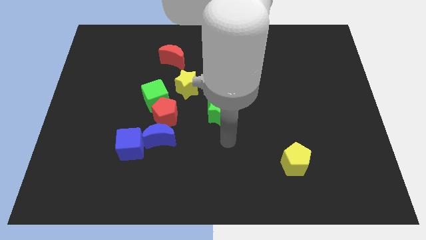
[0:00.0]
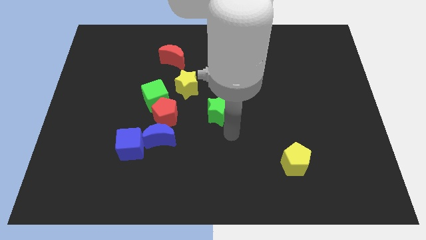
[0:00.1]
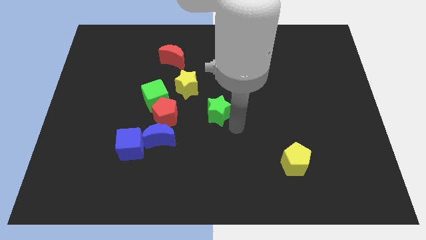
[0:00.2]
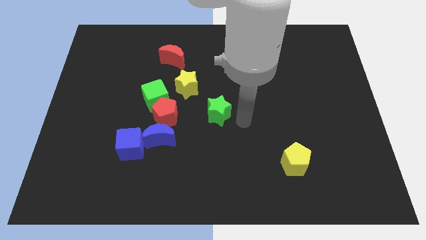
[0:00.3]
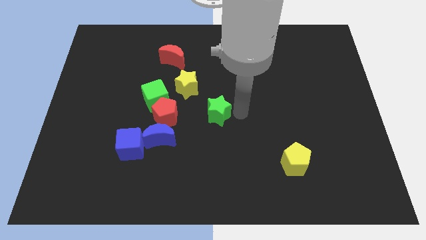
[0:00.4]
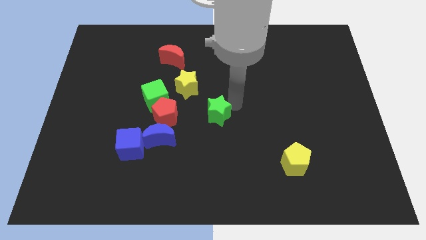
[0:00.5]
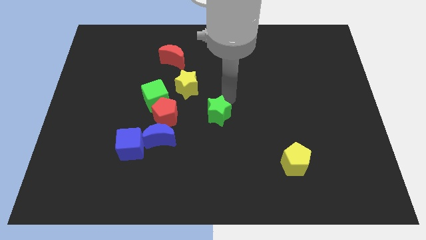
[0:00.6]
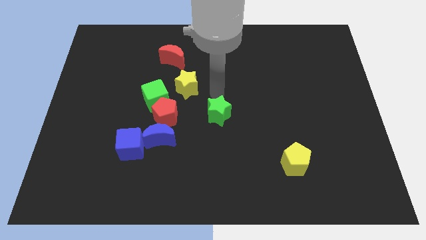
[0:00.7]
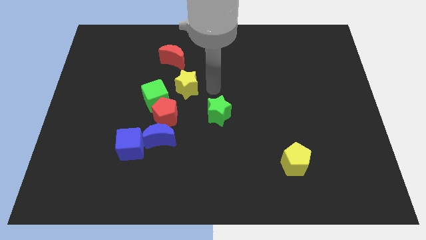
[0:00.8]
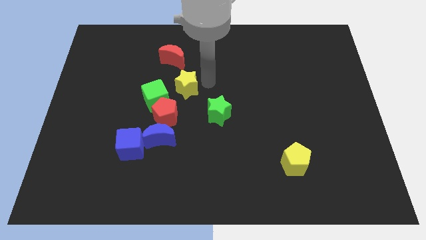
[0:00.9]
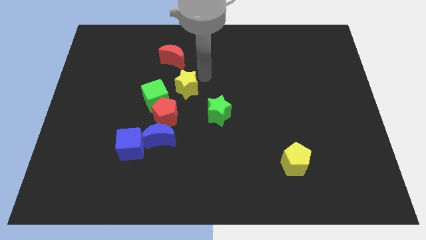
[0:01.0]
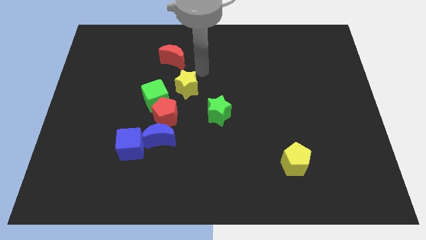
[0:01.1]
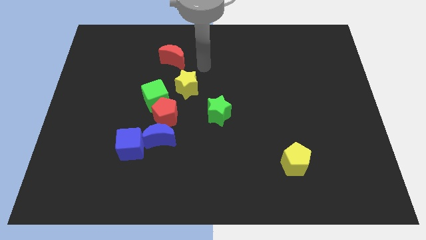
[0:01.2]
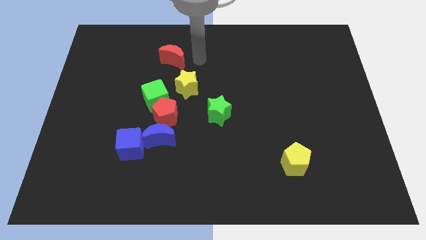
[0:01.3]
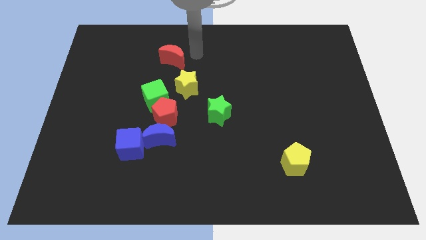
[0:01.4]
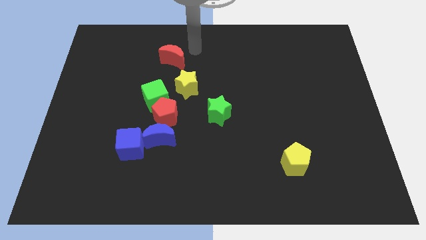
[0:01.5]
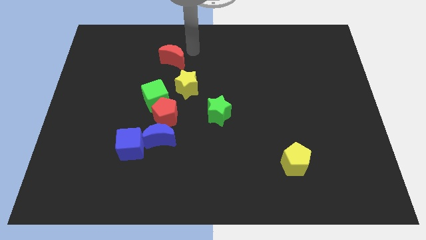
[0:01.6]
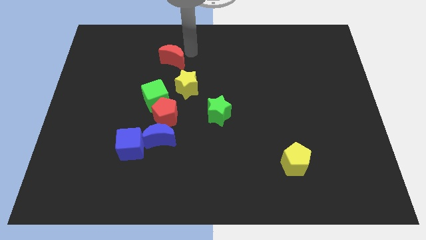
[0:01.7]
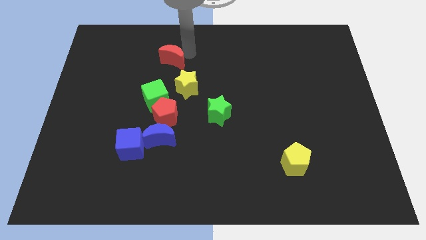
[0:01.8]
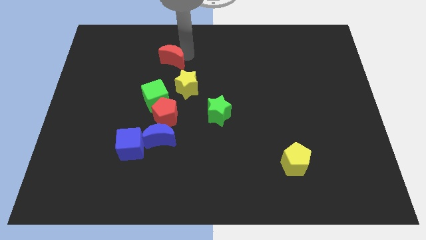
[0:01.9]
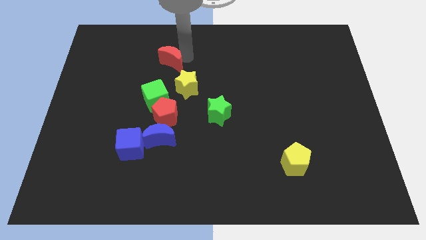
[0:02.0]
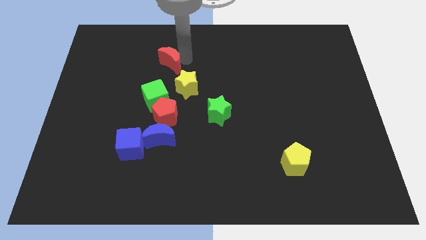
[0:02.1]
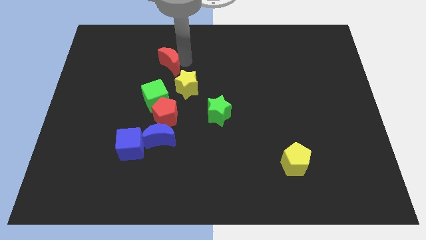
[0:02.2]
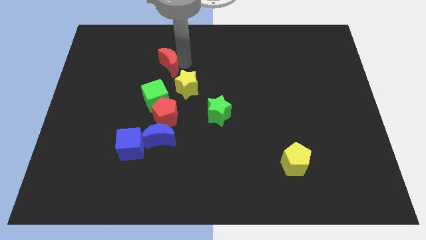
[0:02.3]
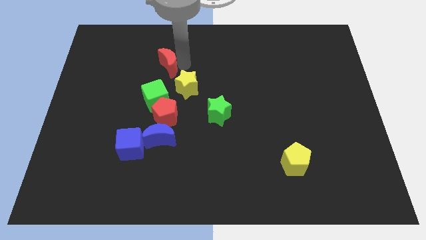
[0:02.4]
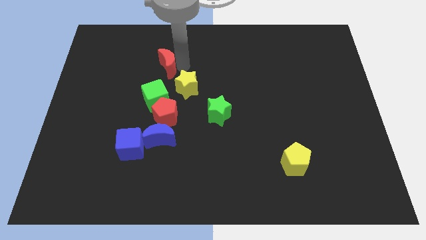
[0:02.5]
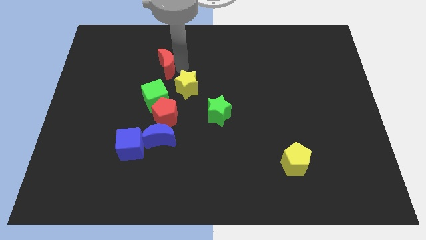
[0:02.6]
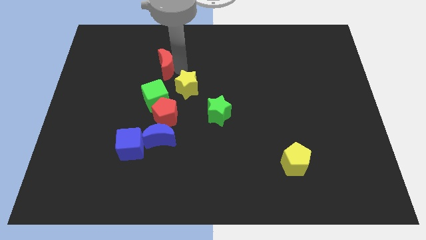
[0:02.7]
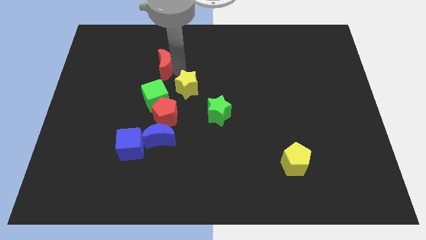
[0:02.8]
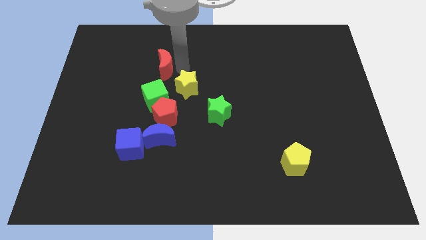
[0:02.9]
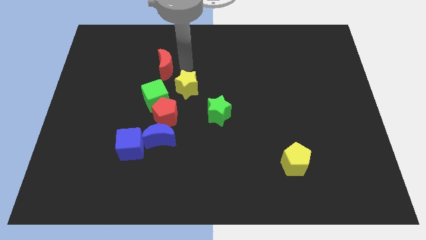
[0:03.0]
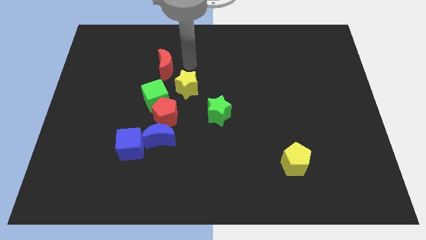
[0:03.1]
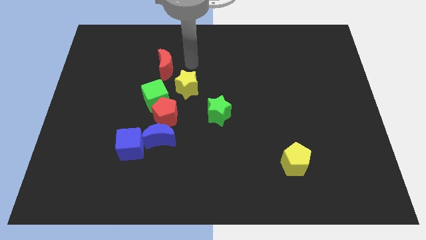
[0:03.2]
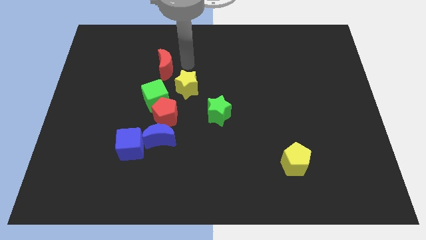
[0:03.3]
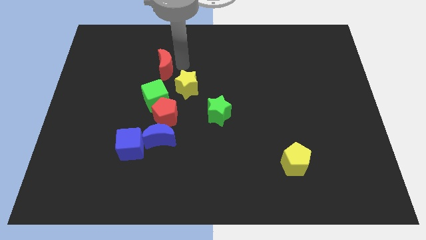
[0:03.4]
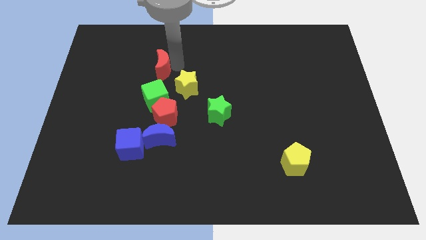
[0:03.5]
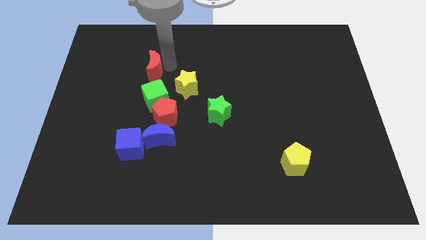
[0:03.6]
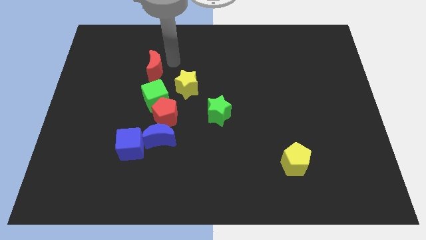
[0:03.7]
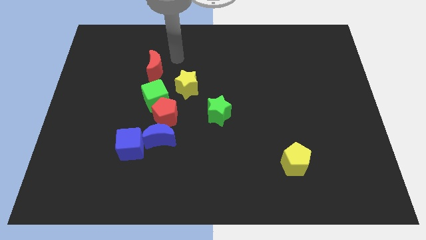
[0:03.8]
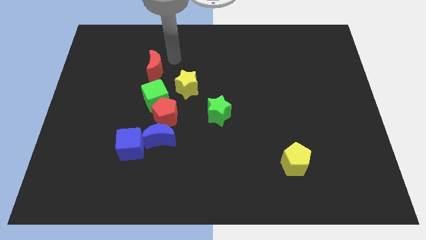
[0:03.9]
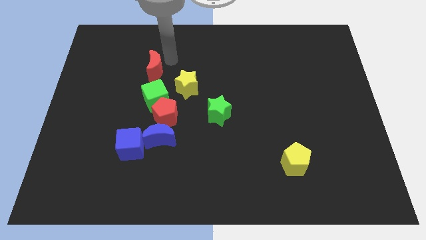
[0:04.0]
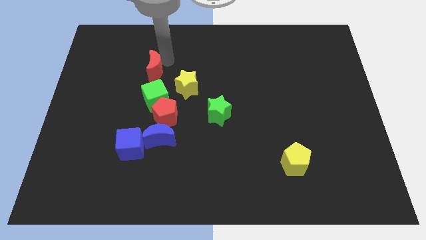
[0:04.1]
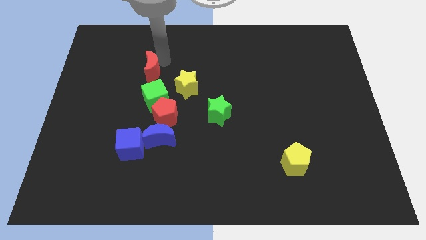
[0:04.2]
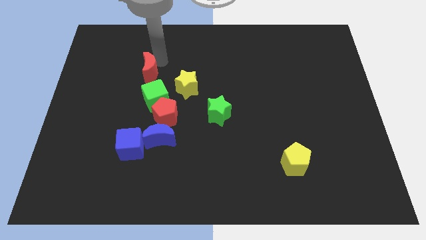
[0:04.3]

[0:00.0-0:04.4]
slide the red moon down and left diagonally a little

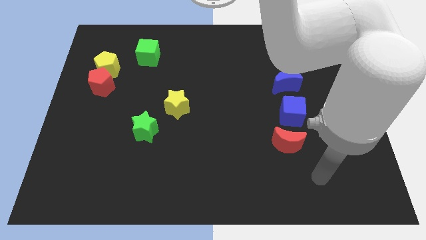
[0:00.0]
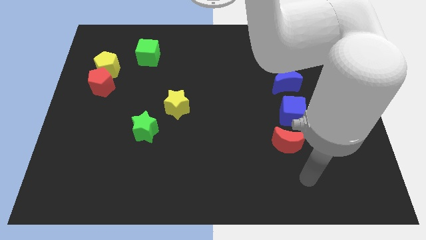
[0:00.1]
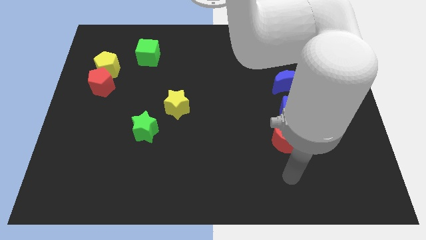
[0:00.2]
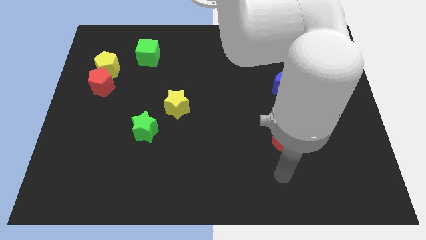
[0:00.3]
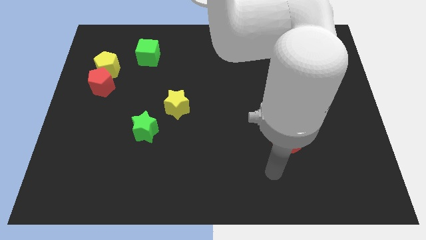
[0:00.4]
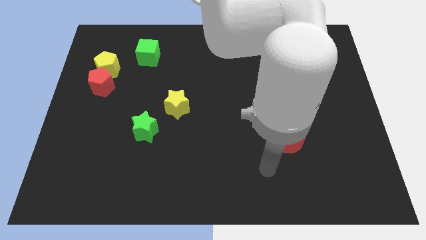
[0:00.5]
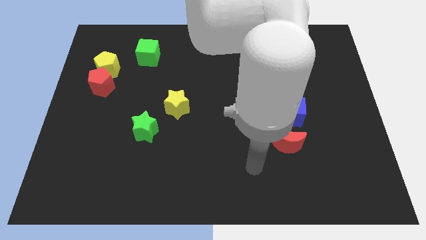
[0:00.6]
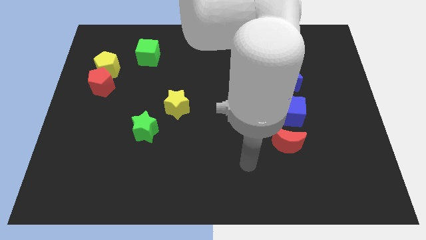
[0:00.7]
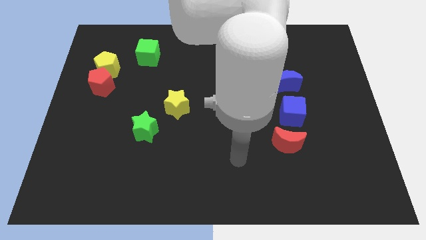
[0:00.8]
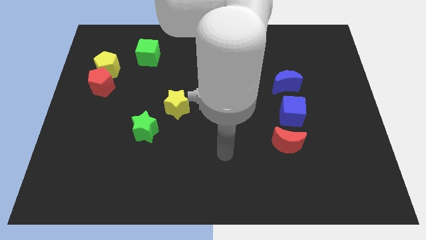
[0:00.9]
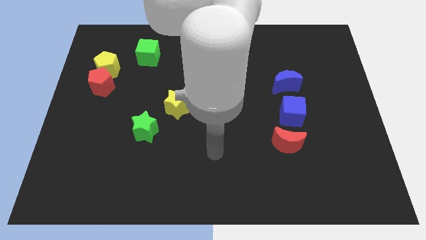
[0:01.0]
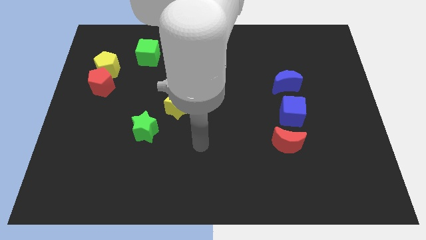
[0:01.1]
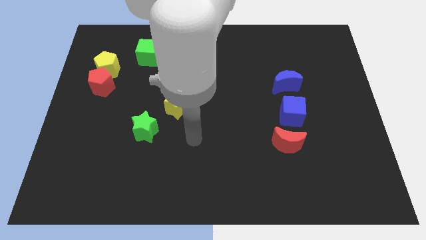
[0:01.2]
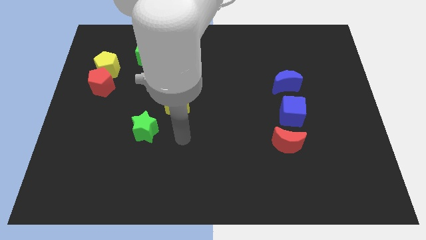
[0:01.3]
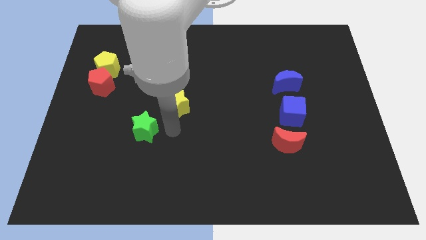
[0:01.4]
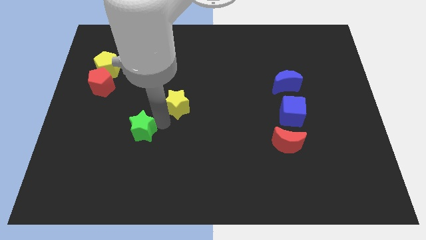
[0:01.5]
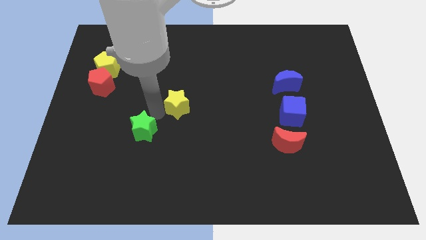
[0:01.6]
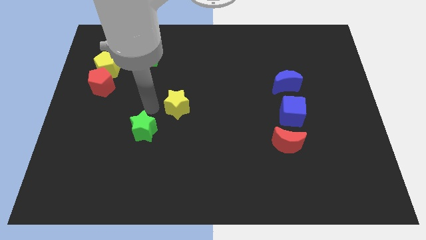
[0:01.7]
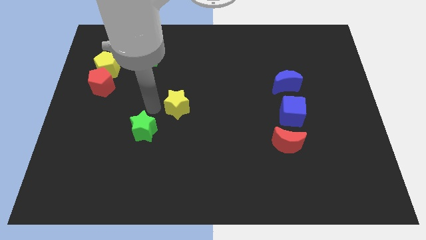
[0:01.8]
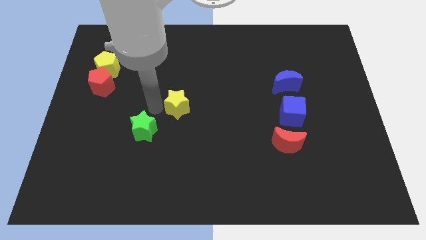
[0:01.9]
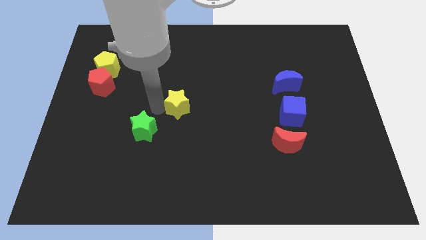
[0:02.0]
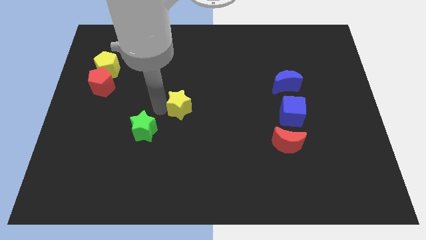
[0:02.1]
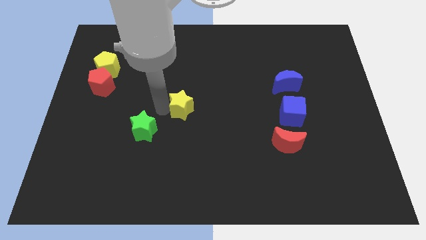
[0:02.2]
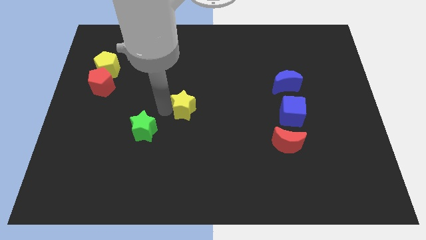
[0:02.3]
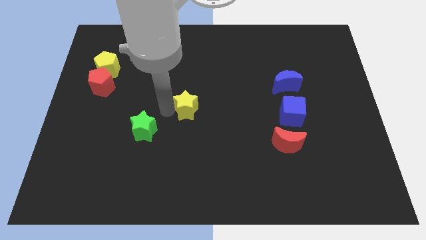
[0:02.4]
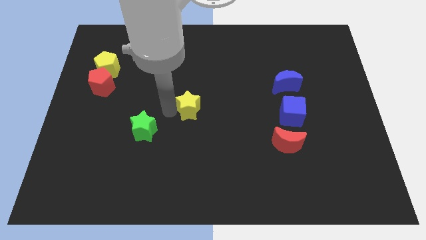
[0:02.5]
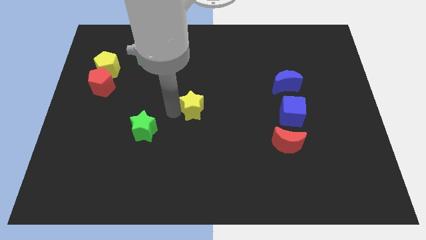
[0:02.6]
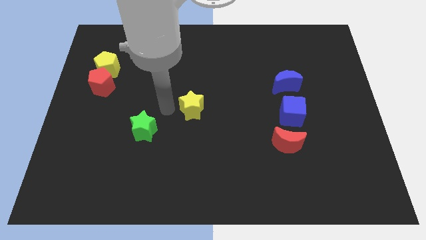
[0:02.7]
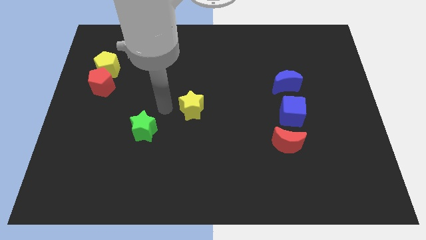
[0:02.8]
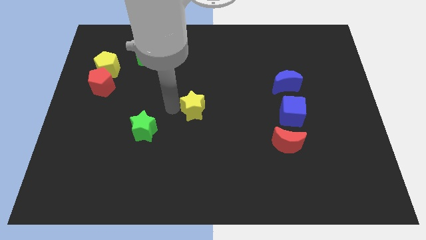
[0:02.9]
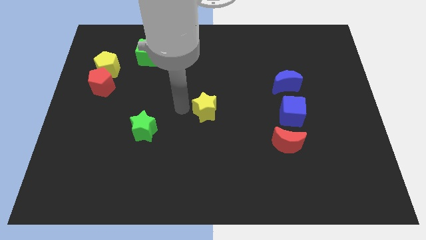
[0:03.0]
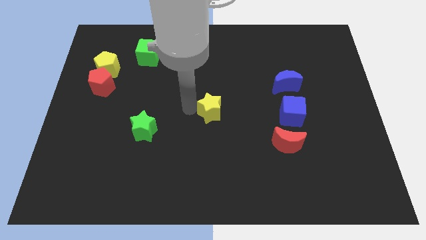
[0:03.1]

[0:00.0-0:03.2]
slide the yellow star to the right a little bit
